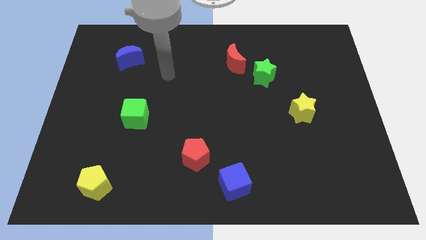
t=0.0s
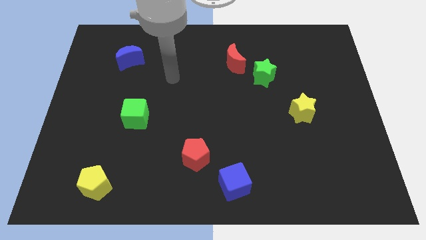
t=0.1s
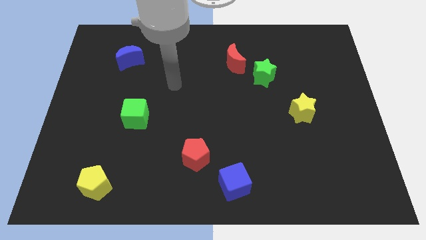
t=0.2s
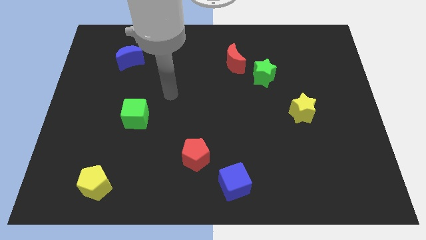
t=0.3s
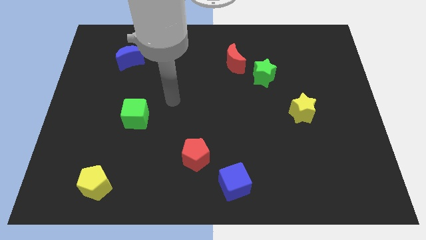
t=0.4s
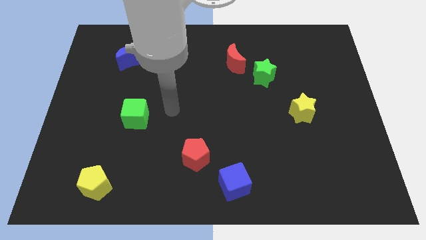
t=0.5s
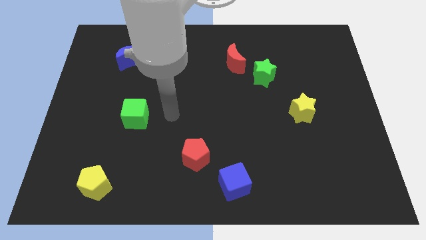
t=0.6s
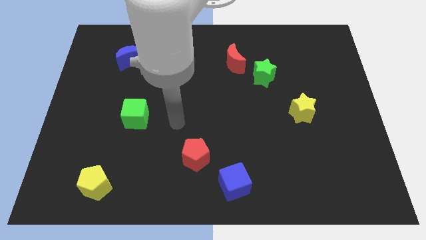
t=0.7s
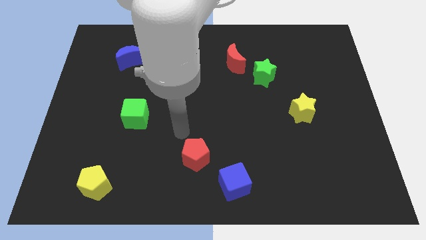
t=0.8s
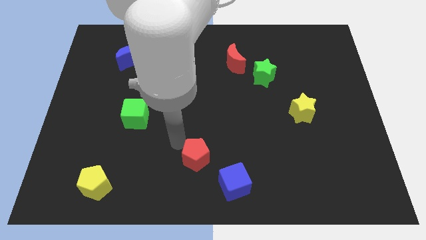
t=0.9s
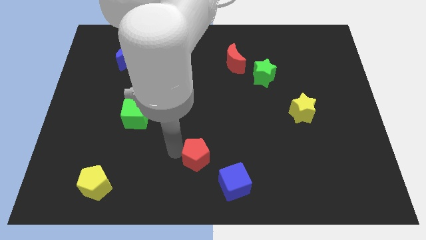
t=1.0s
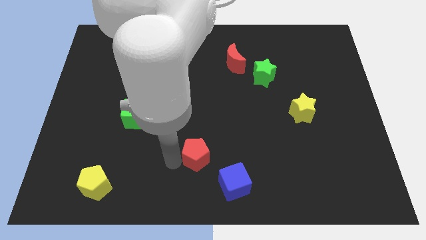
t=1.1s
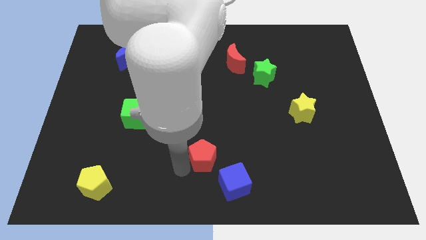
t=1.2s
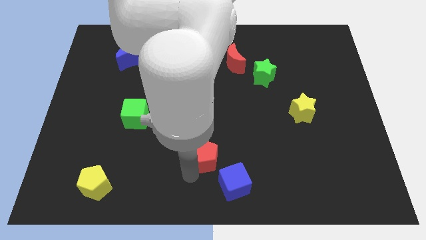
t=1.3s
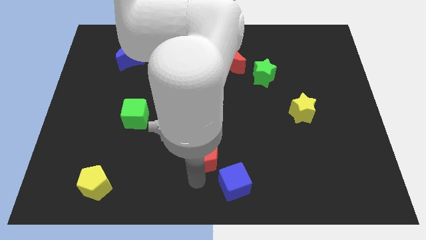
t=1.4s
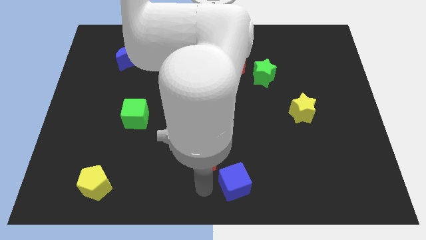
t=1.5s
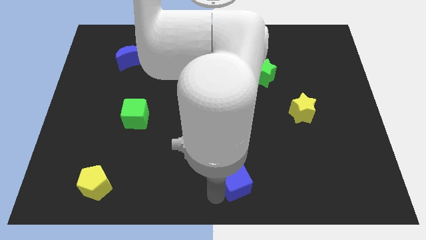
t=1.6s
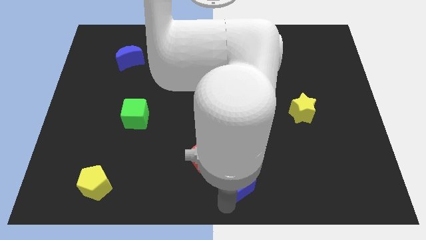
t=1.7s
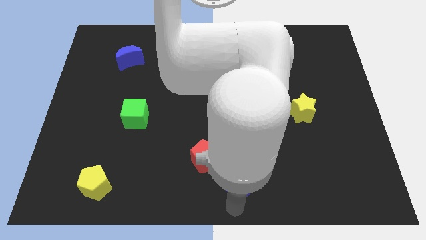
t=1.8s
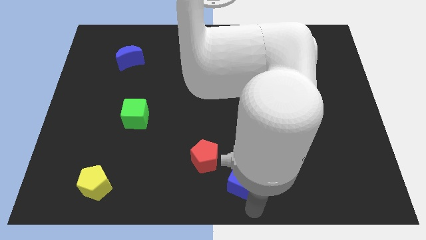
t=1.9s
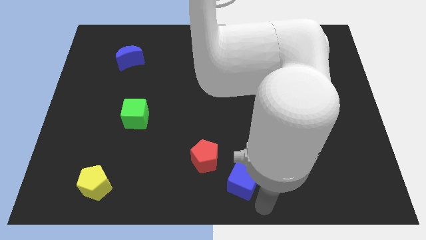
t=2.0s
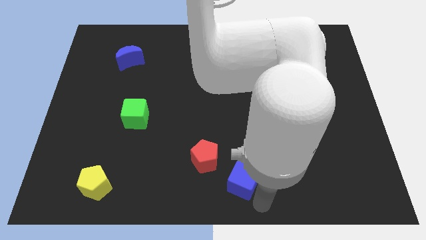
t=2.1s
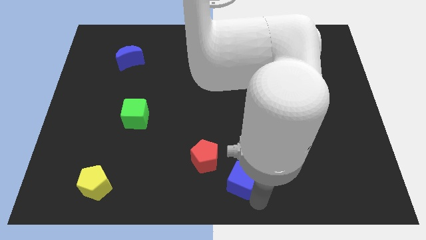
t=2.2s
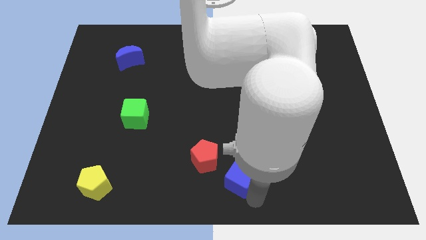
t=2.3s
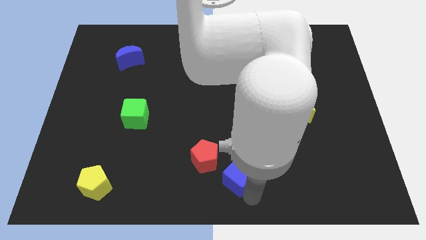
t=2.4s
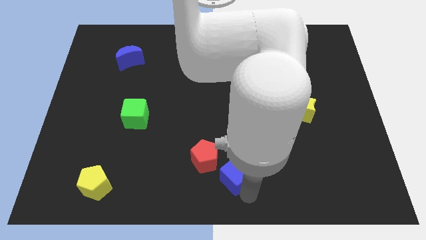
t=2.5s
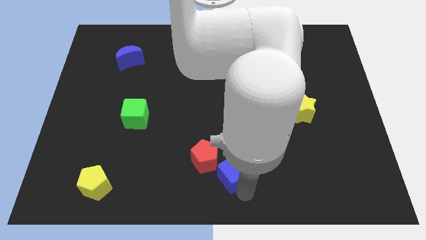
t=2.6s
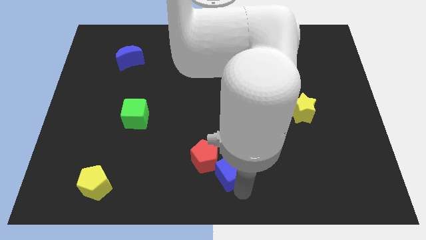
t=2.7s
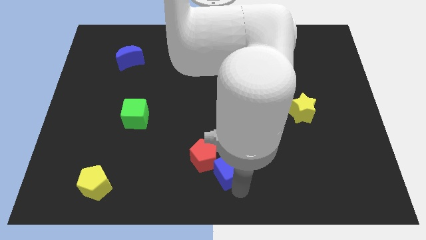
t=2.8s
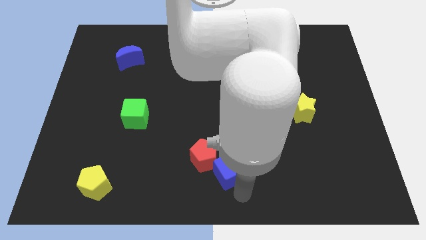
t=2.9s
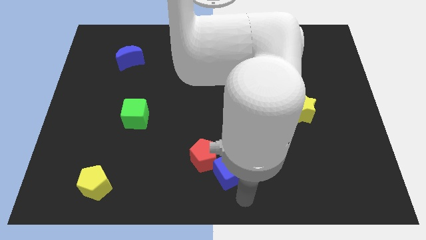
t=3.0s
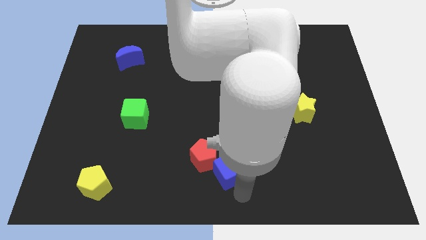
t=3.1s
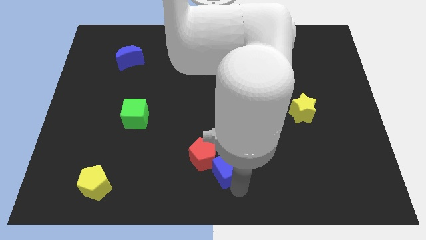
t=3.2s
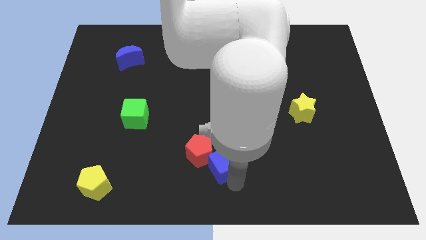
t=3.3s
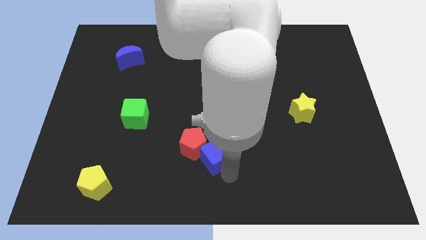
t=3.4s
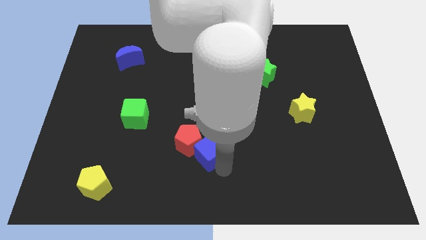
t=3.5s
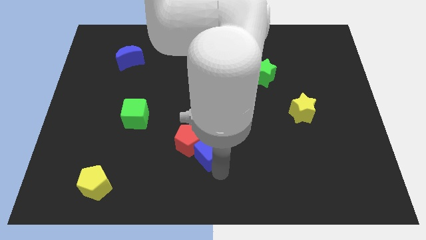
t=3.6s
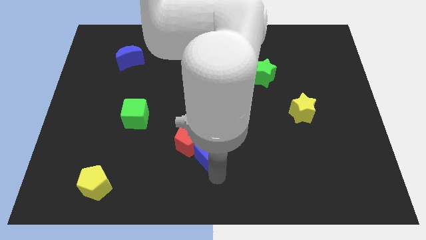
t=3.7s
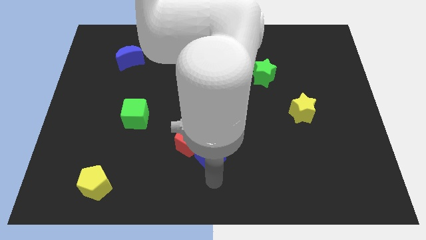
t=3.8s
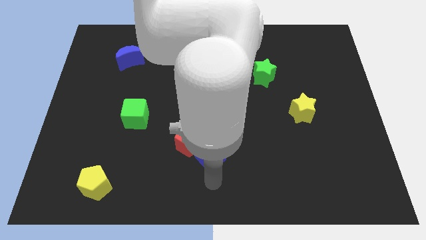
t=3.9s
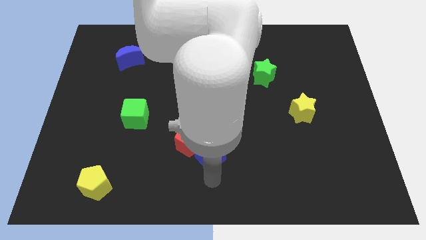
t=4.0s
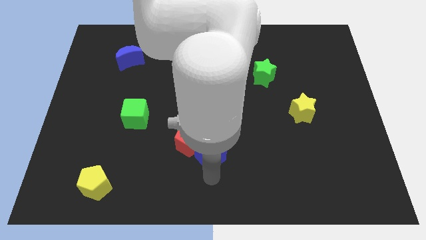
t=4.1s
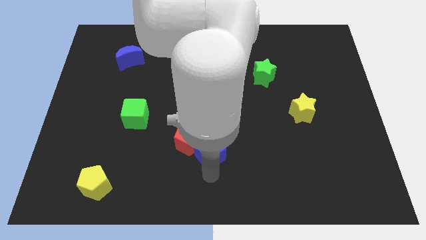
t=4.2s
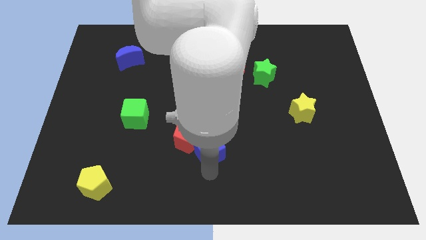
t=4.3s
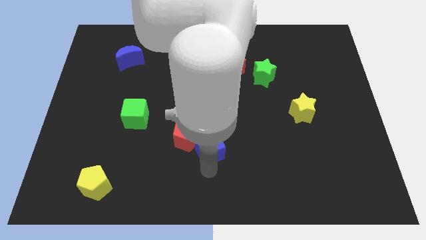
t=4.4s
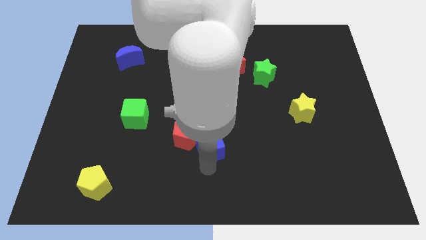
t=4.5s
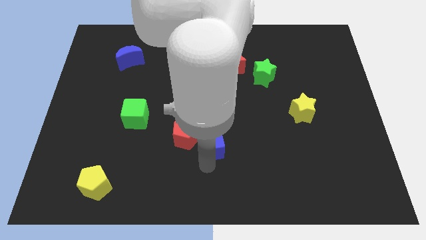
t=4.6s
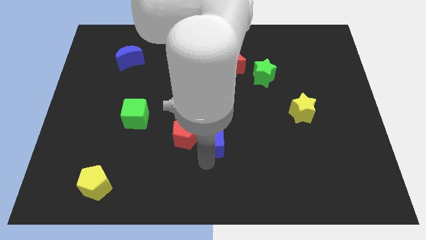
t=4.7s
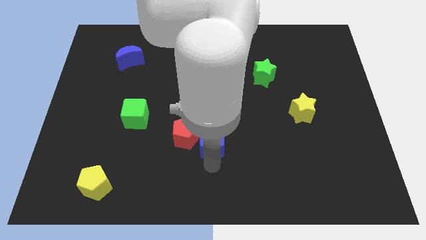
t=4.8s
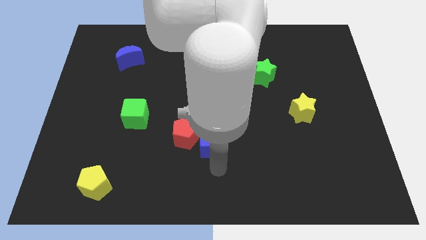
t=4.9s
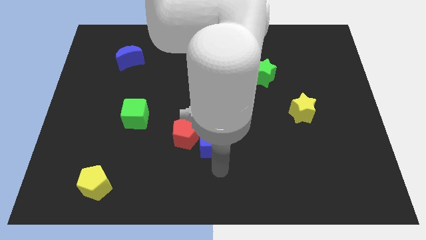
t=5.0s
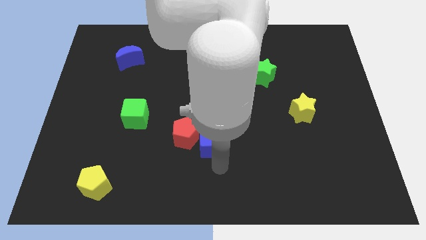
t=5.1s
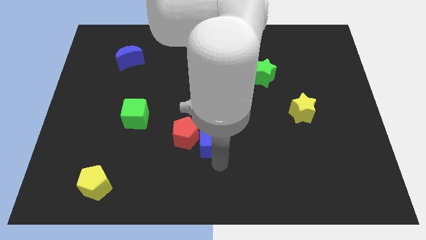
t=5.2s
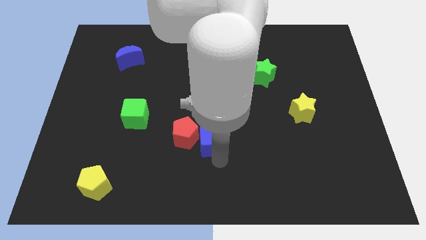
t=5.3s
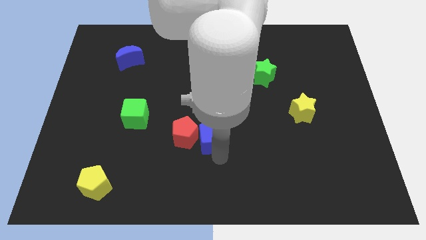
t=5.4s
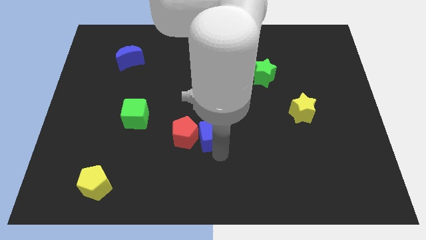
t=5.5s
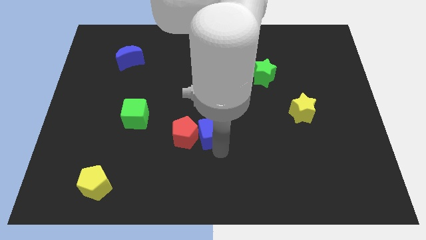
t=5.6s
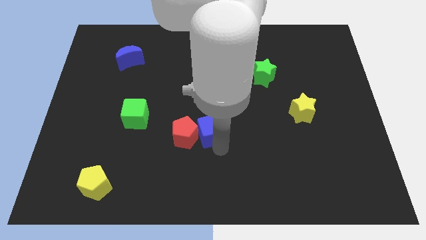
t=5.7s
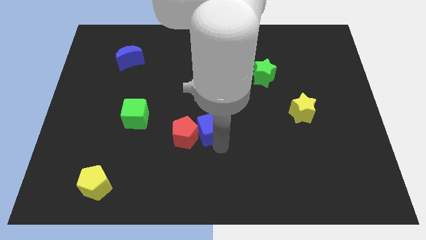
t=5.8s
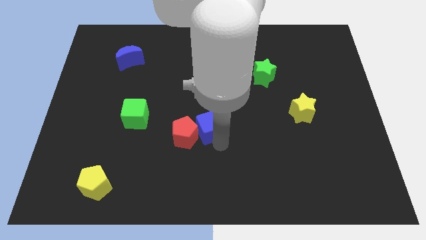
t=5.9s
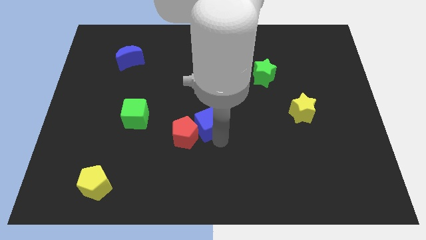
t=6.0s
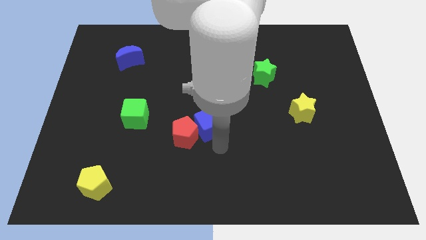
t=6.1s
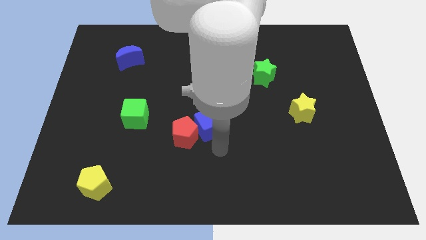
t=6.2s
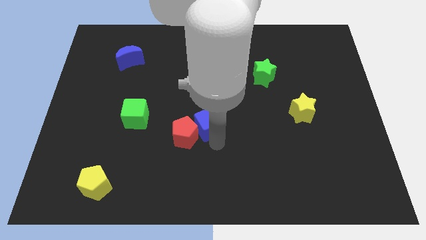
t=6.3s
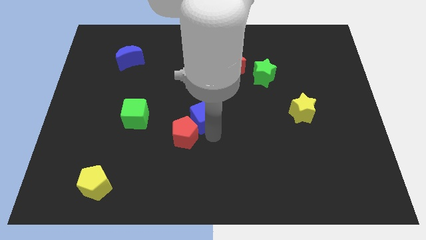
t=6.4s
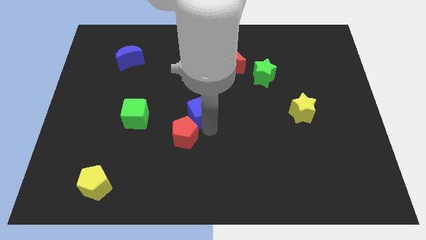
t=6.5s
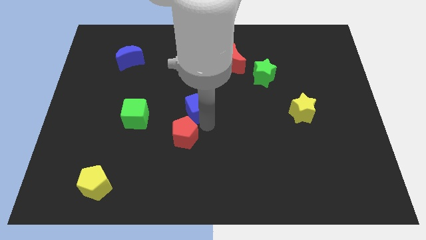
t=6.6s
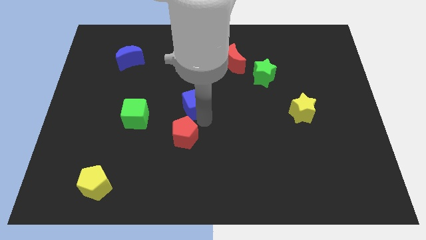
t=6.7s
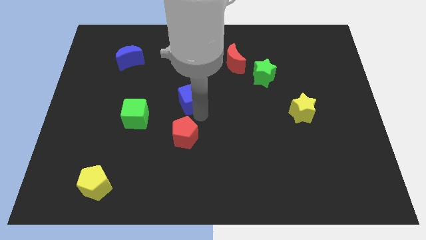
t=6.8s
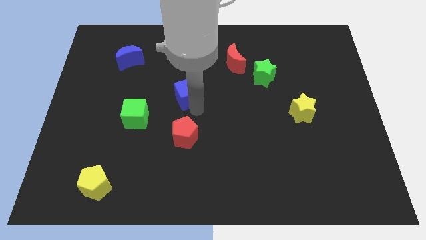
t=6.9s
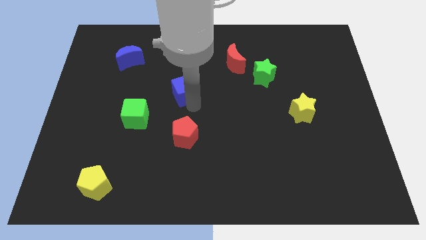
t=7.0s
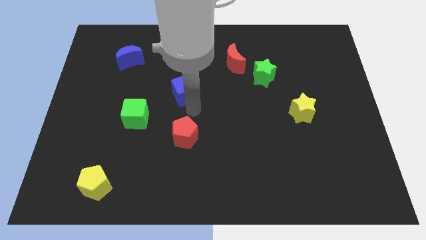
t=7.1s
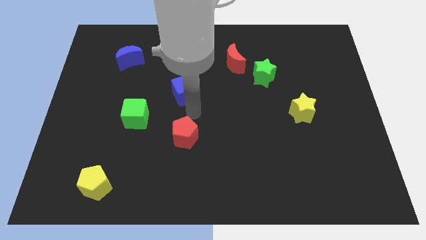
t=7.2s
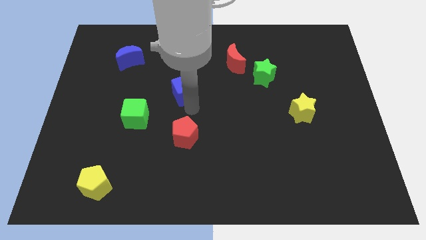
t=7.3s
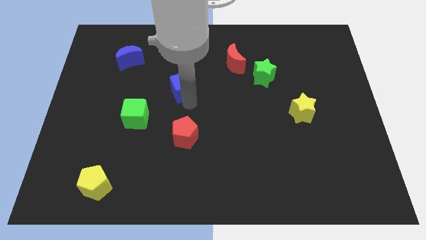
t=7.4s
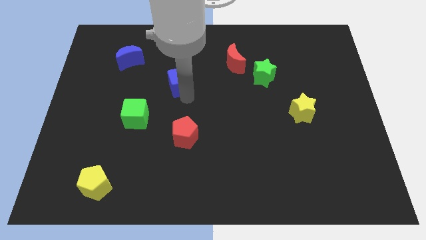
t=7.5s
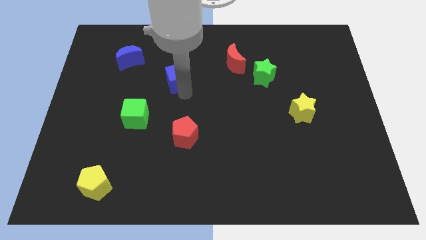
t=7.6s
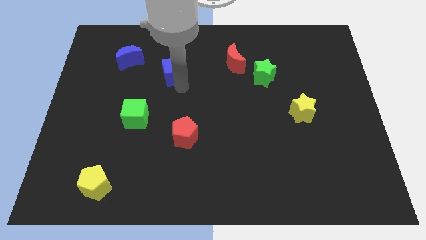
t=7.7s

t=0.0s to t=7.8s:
move the blue cube to the right of the blue moon
